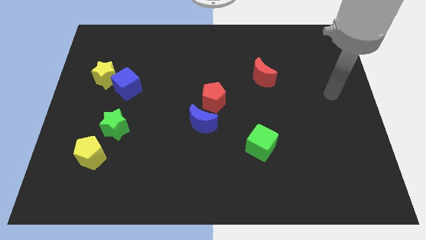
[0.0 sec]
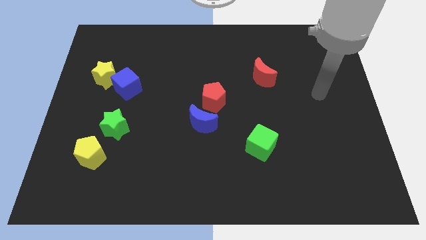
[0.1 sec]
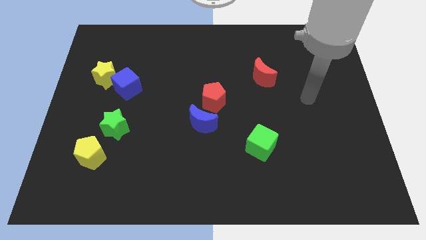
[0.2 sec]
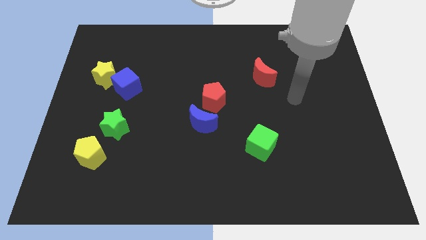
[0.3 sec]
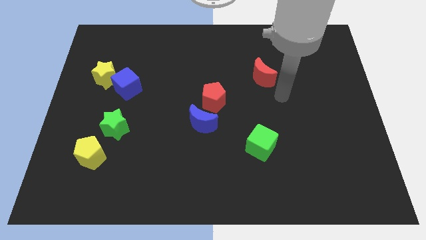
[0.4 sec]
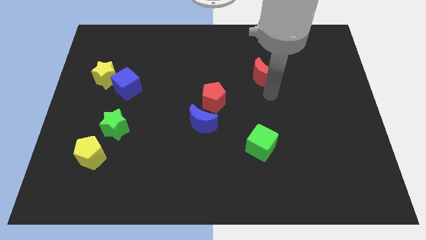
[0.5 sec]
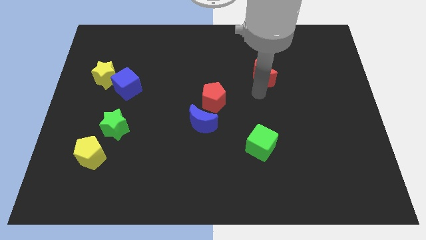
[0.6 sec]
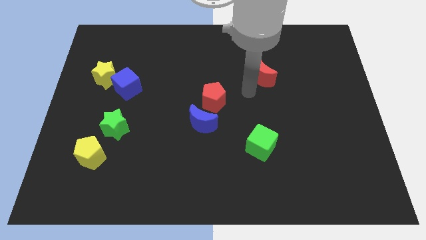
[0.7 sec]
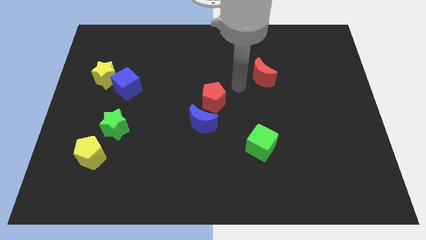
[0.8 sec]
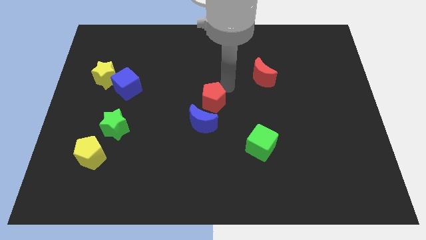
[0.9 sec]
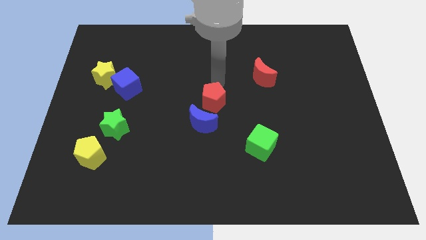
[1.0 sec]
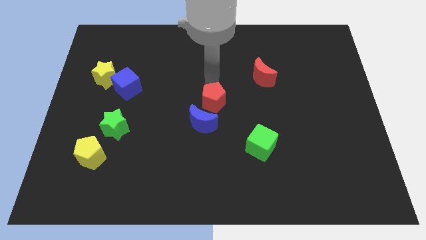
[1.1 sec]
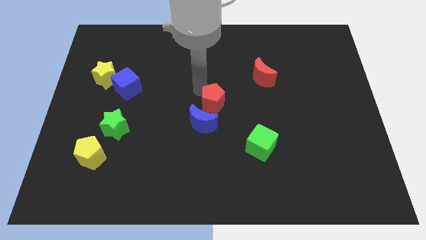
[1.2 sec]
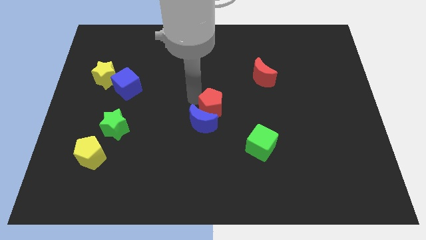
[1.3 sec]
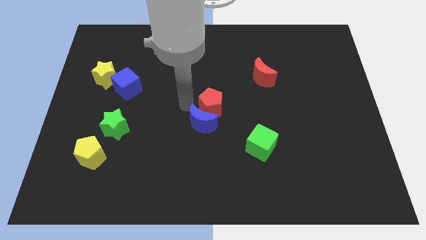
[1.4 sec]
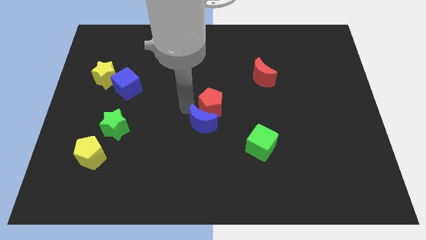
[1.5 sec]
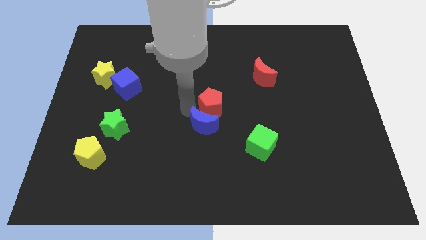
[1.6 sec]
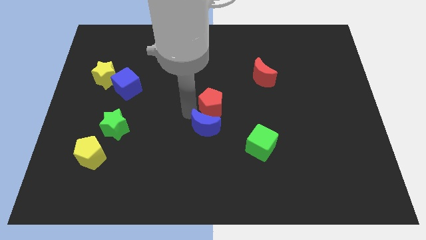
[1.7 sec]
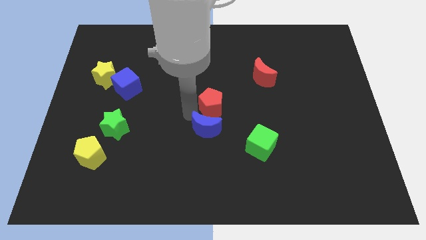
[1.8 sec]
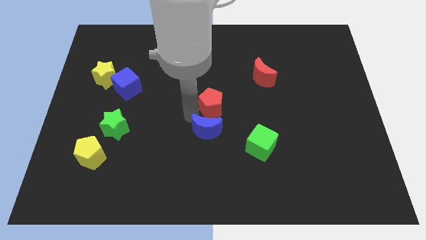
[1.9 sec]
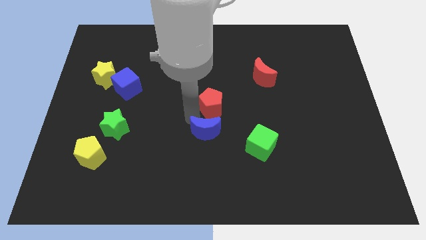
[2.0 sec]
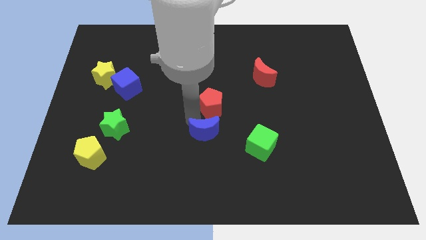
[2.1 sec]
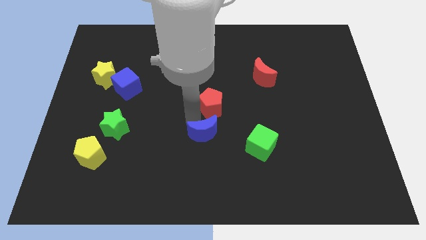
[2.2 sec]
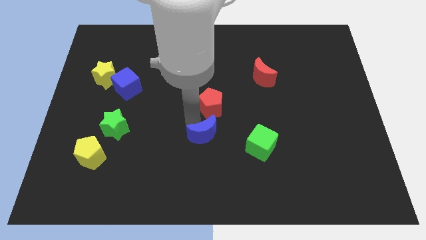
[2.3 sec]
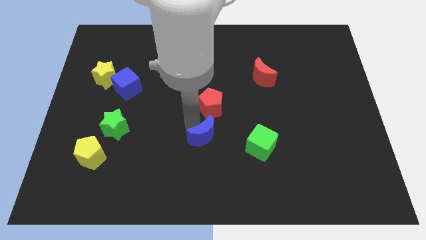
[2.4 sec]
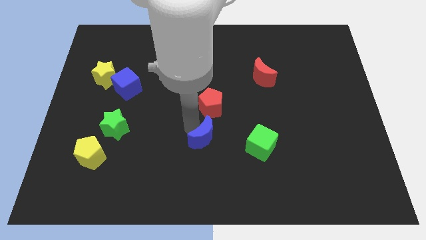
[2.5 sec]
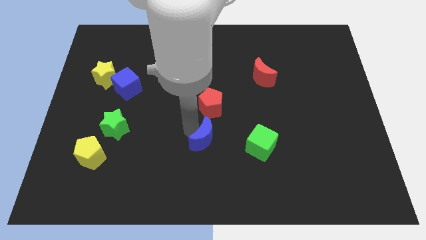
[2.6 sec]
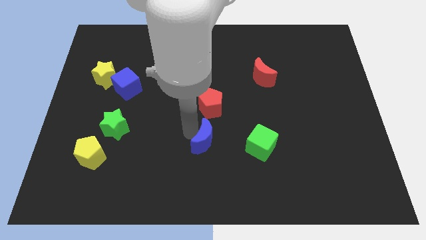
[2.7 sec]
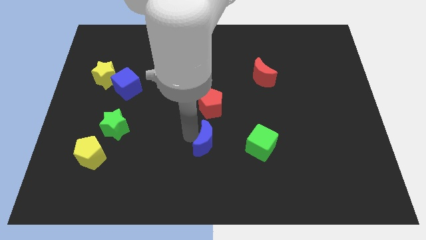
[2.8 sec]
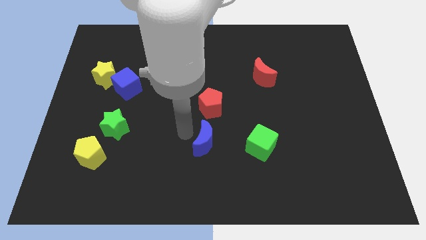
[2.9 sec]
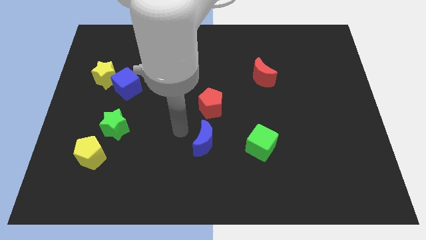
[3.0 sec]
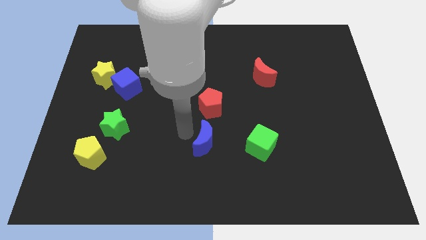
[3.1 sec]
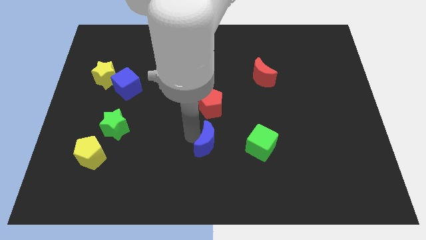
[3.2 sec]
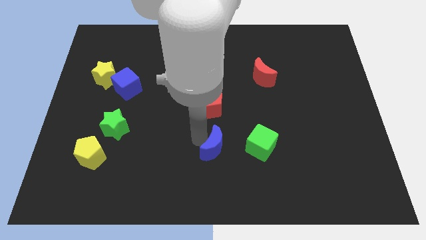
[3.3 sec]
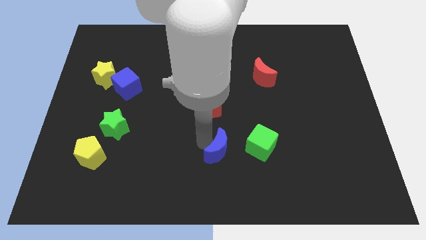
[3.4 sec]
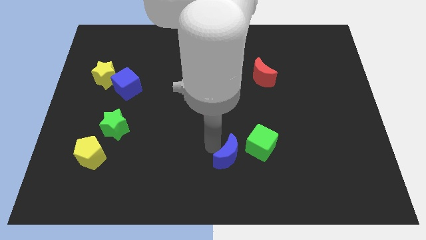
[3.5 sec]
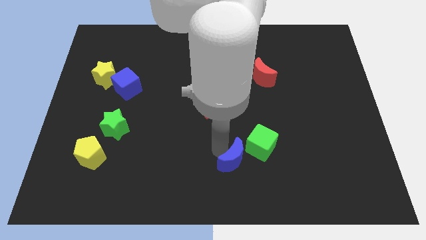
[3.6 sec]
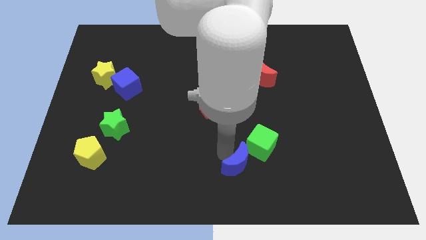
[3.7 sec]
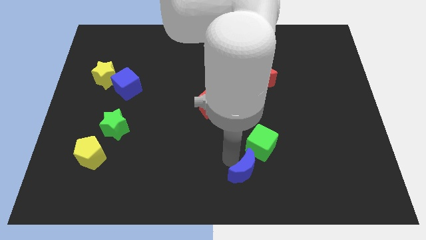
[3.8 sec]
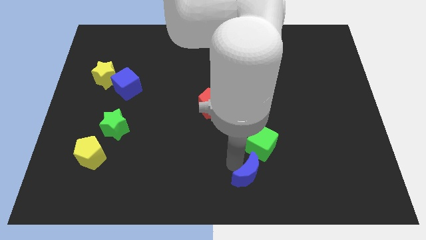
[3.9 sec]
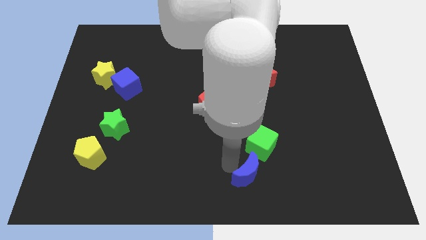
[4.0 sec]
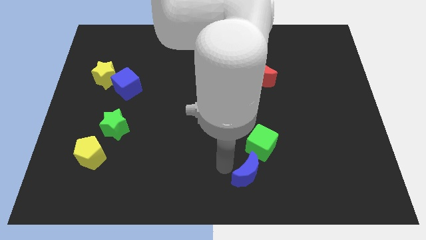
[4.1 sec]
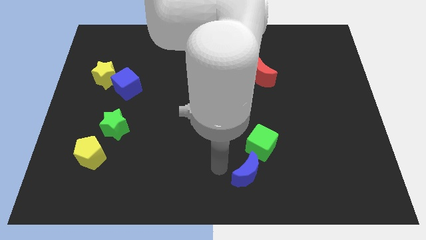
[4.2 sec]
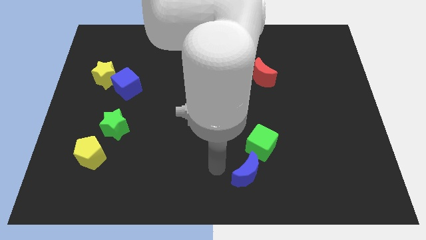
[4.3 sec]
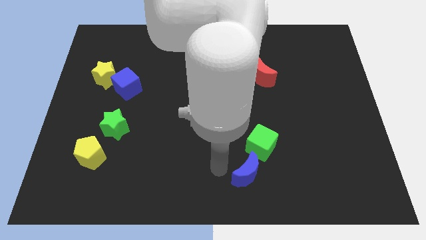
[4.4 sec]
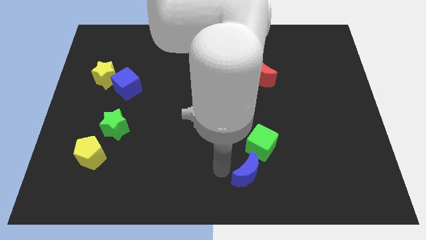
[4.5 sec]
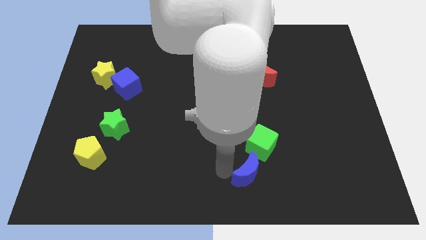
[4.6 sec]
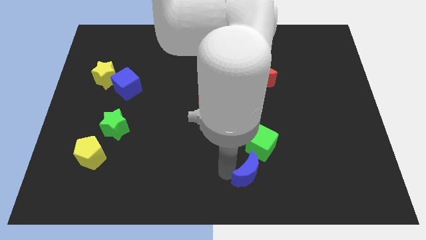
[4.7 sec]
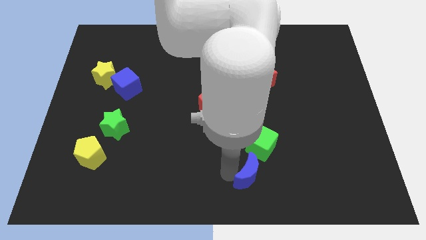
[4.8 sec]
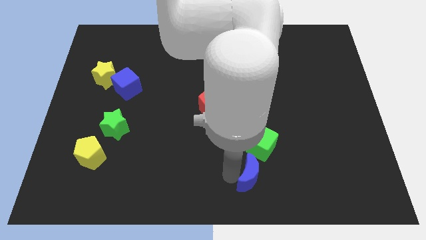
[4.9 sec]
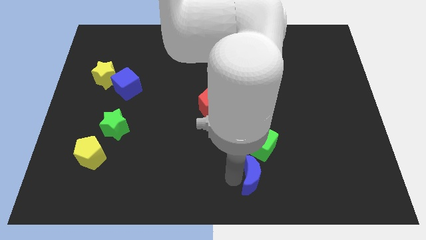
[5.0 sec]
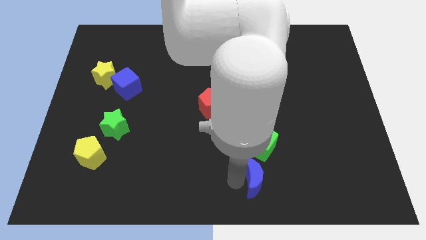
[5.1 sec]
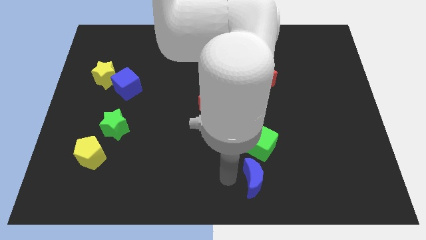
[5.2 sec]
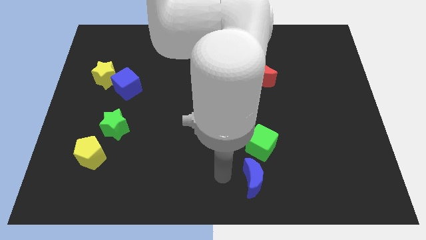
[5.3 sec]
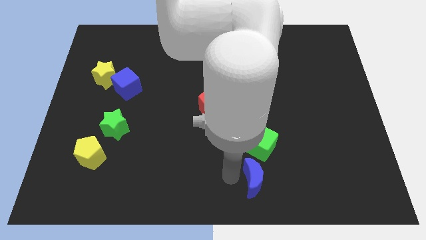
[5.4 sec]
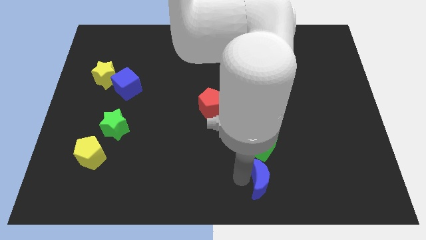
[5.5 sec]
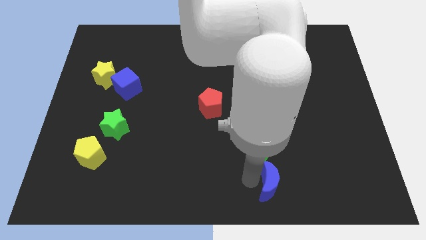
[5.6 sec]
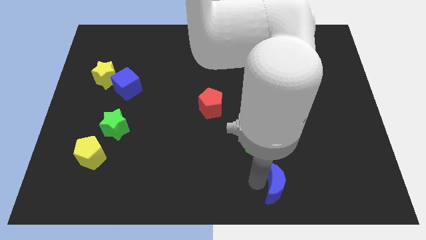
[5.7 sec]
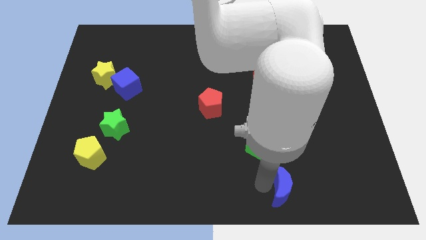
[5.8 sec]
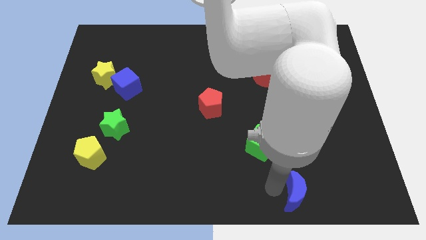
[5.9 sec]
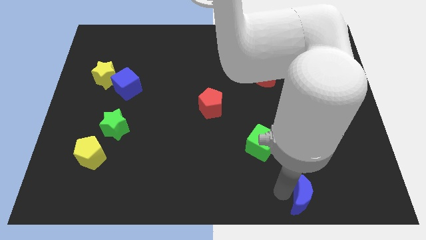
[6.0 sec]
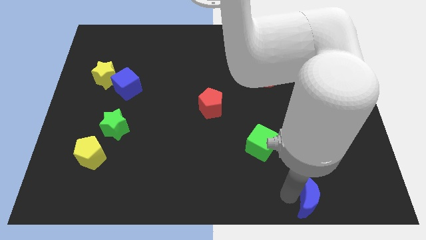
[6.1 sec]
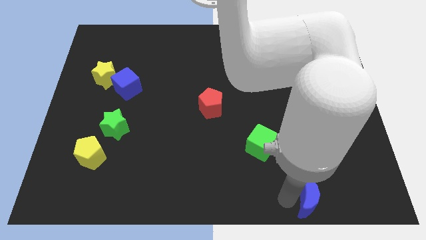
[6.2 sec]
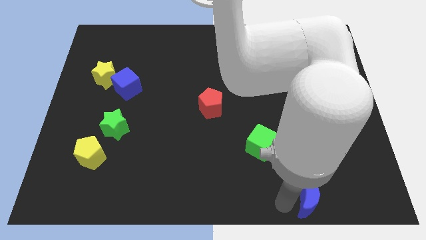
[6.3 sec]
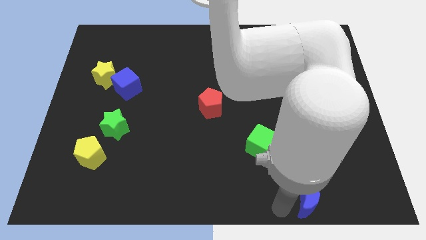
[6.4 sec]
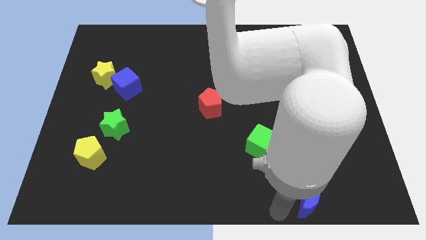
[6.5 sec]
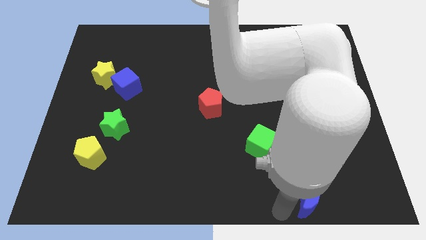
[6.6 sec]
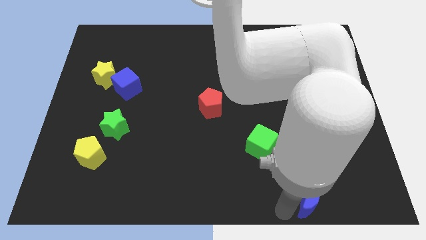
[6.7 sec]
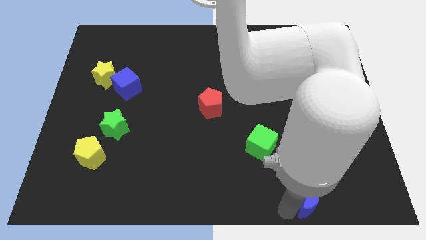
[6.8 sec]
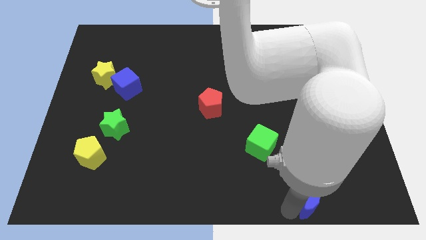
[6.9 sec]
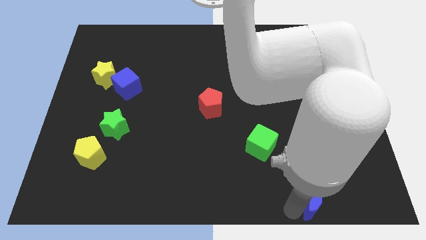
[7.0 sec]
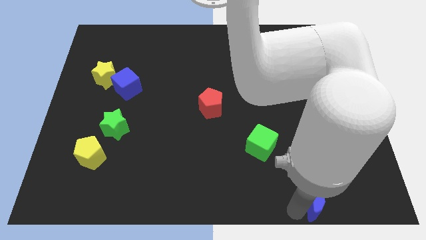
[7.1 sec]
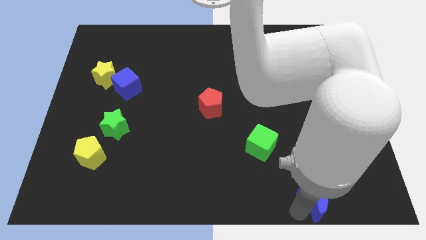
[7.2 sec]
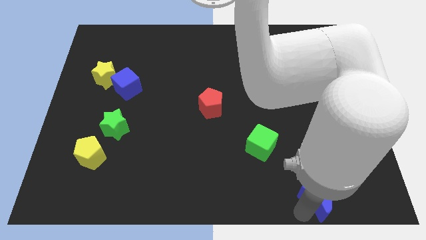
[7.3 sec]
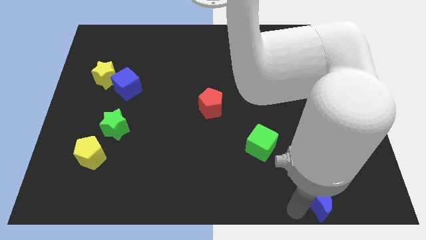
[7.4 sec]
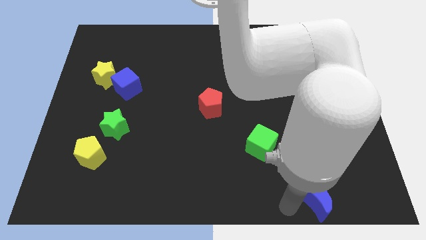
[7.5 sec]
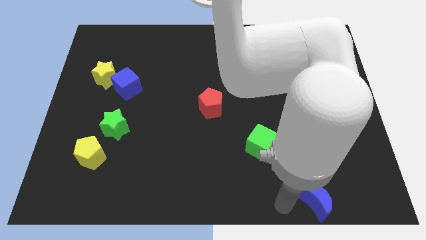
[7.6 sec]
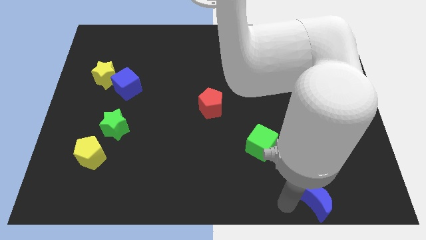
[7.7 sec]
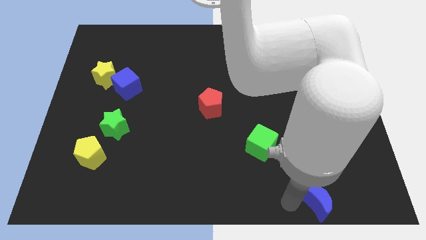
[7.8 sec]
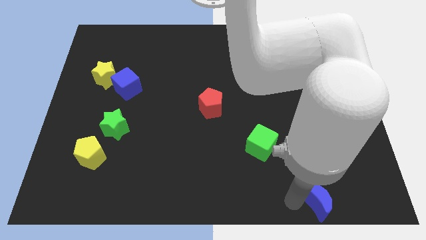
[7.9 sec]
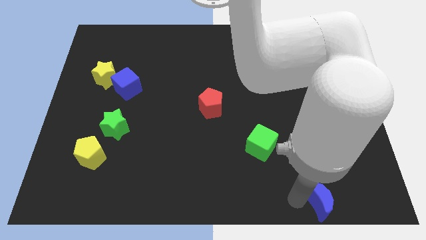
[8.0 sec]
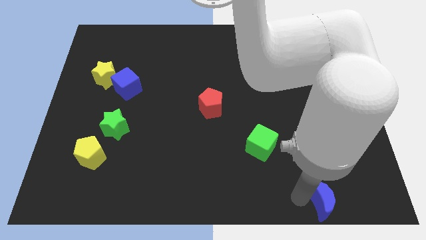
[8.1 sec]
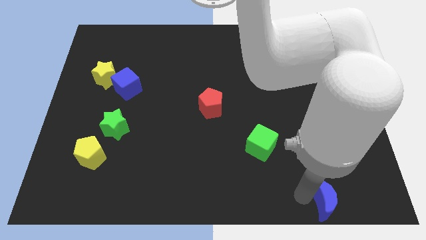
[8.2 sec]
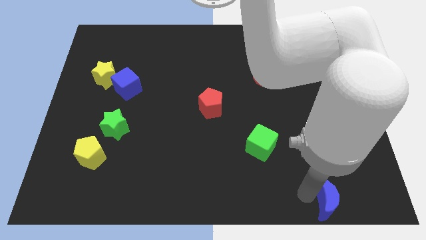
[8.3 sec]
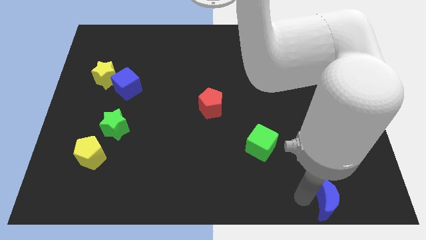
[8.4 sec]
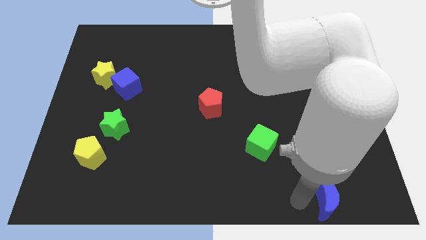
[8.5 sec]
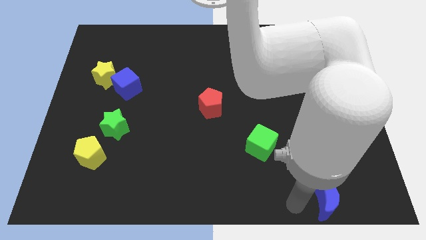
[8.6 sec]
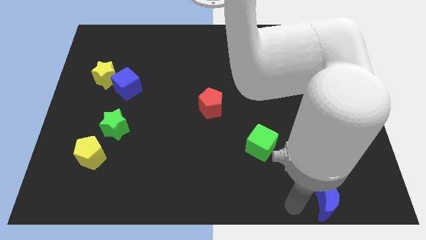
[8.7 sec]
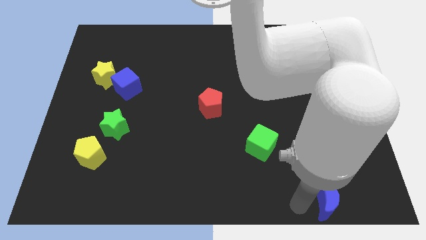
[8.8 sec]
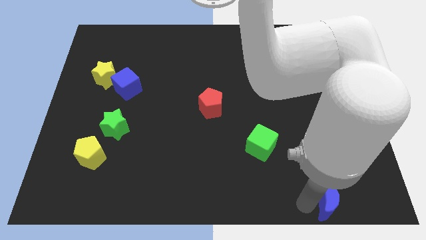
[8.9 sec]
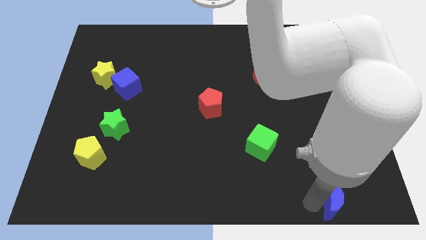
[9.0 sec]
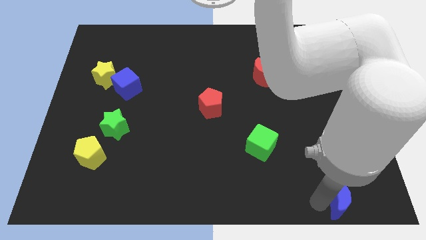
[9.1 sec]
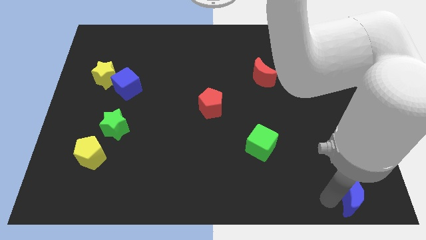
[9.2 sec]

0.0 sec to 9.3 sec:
push the blue moon to the bottom right
